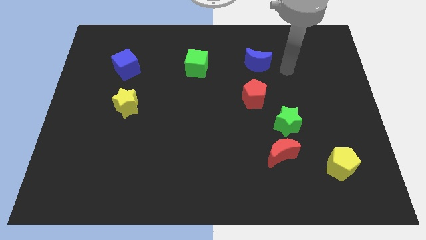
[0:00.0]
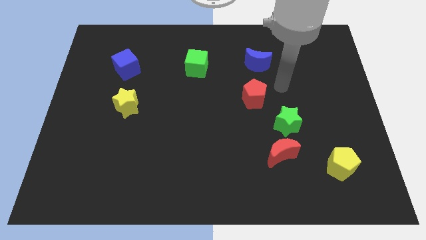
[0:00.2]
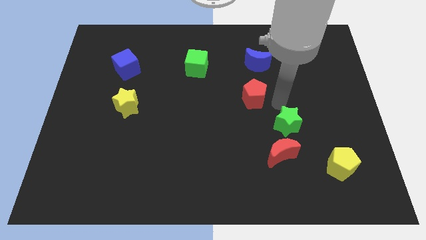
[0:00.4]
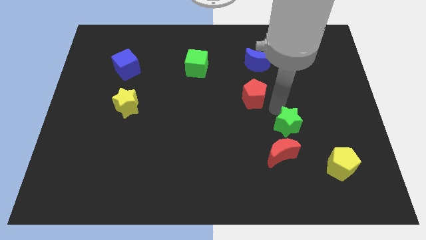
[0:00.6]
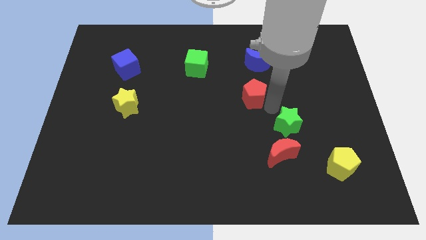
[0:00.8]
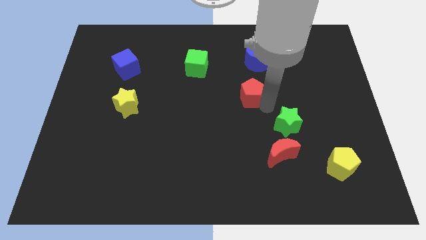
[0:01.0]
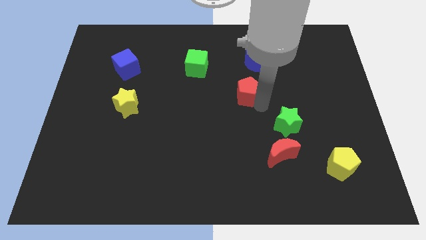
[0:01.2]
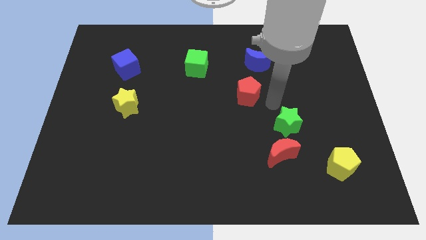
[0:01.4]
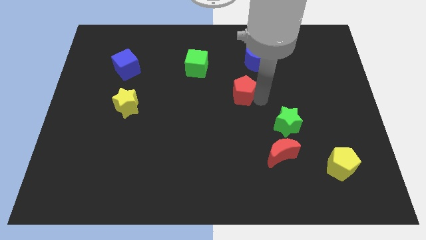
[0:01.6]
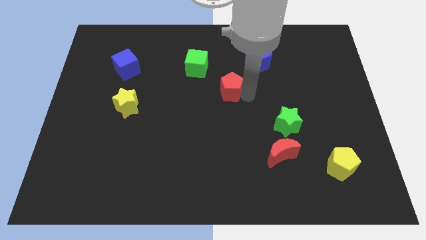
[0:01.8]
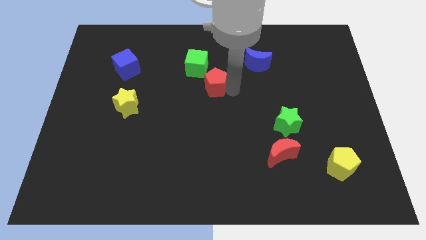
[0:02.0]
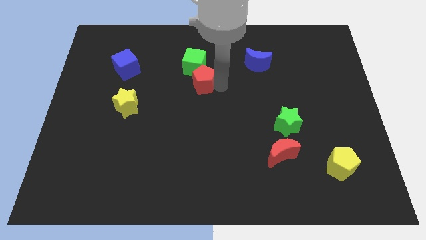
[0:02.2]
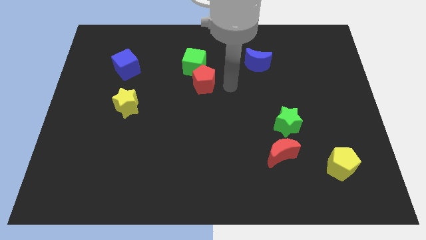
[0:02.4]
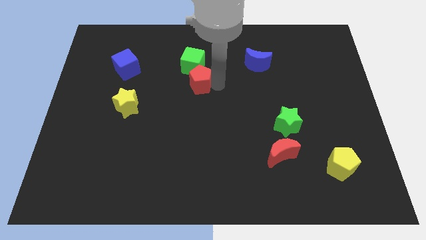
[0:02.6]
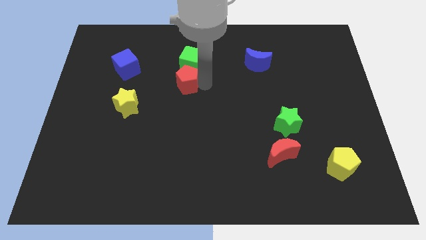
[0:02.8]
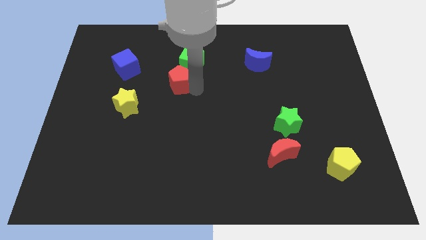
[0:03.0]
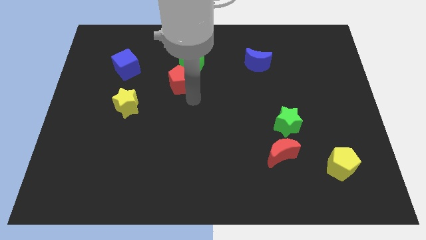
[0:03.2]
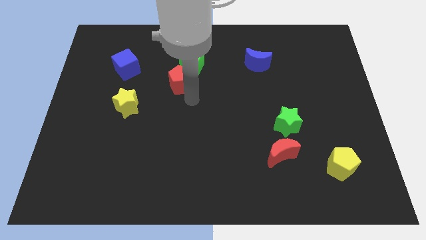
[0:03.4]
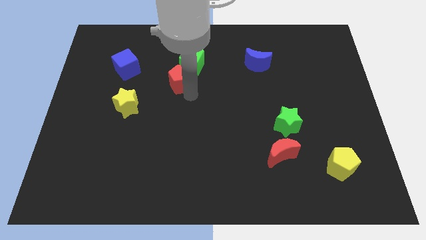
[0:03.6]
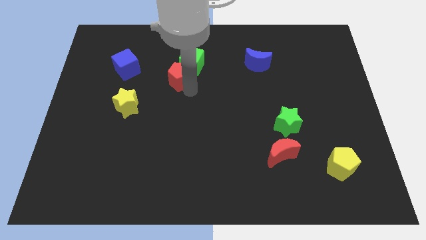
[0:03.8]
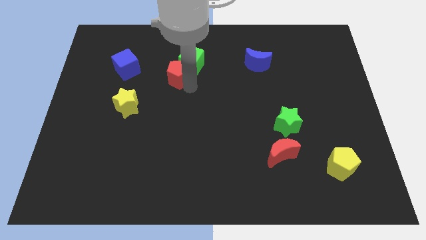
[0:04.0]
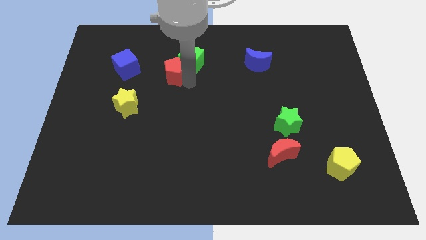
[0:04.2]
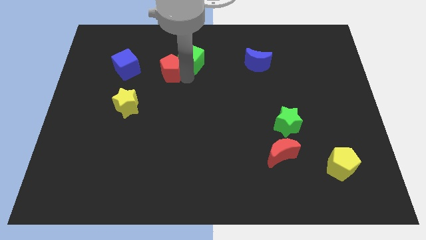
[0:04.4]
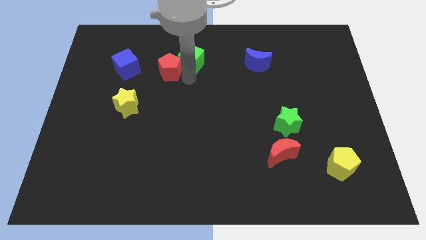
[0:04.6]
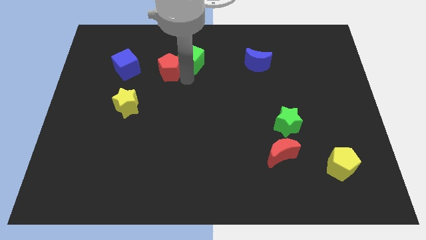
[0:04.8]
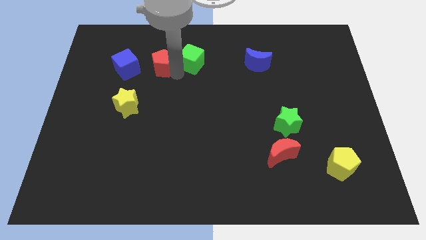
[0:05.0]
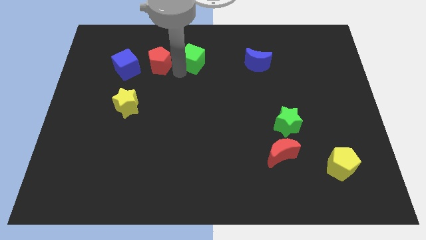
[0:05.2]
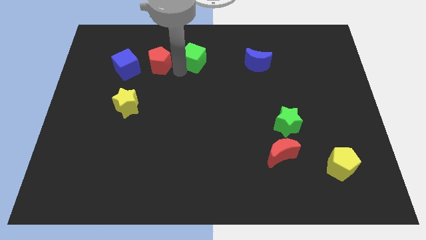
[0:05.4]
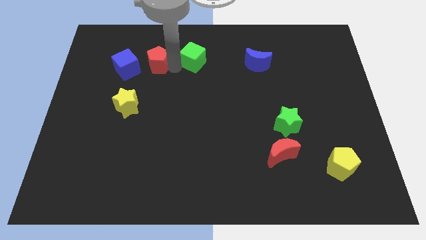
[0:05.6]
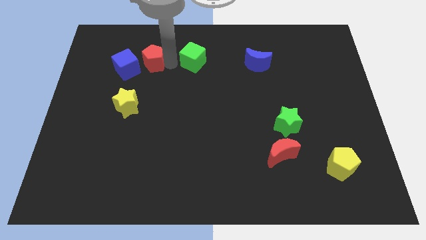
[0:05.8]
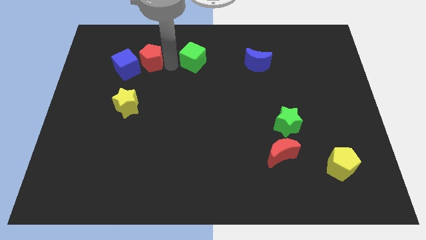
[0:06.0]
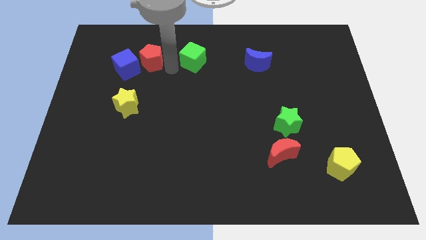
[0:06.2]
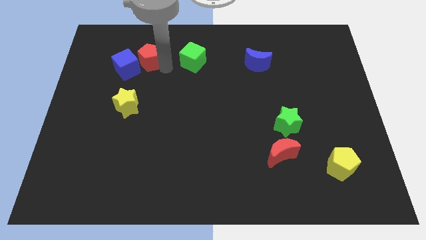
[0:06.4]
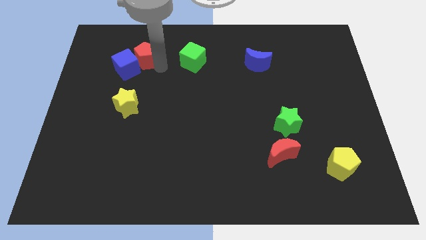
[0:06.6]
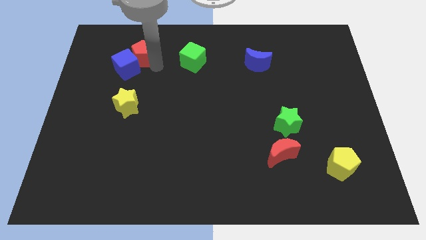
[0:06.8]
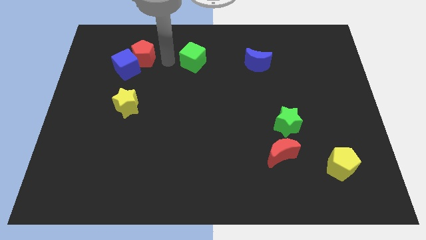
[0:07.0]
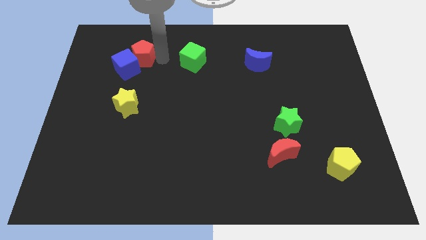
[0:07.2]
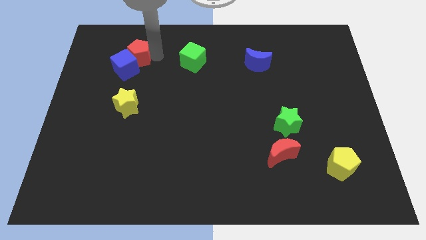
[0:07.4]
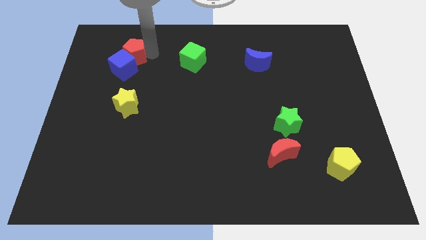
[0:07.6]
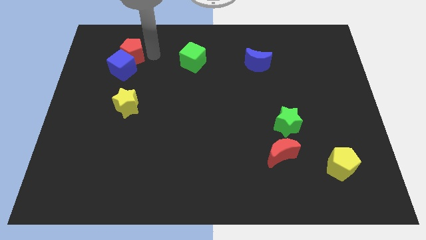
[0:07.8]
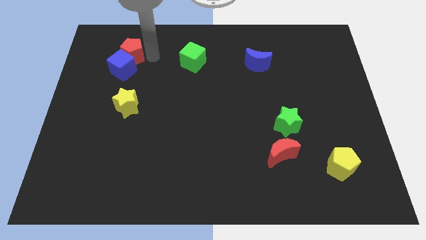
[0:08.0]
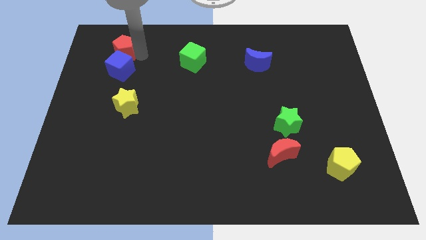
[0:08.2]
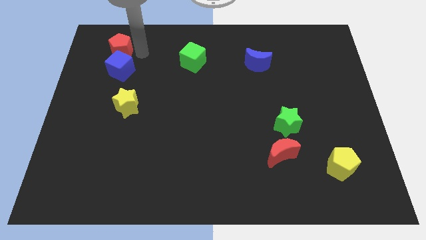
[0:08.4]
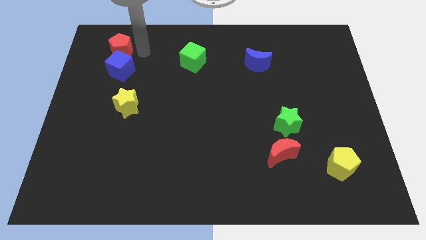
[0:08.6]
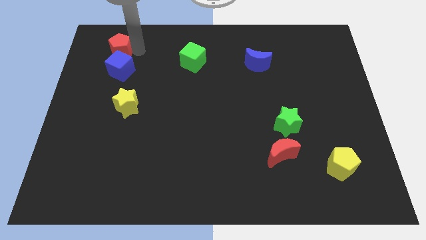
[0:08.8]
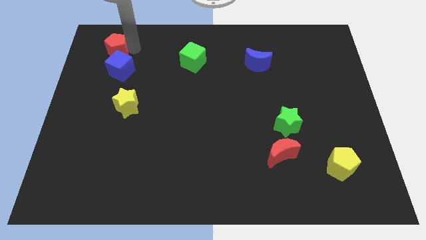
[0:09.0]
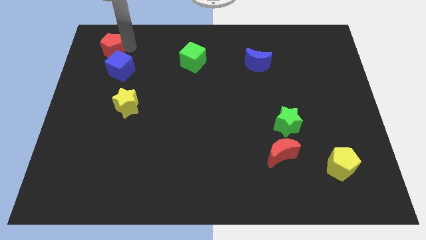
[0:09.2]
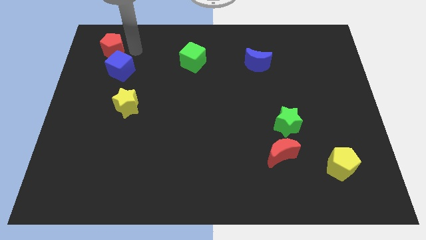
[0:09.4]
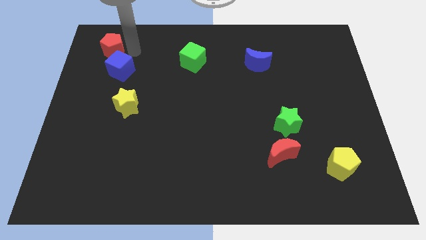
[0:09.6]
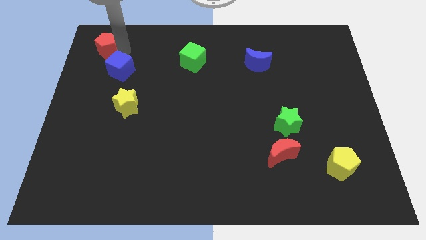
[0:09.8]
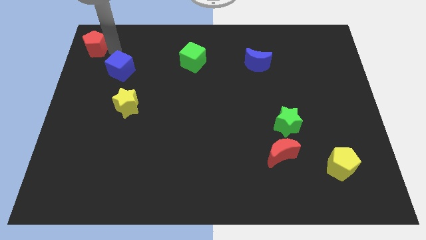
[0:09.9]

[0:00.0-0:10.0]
put the red pentagon to the top left

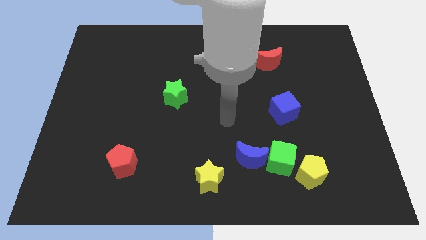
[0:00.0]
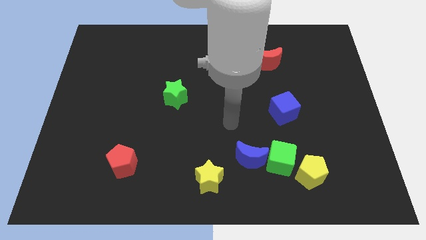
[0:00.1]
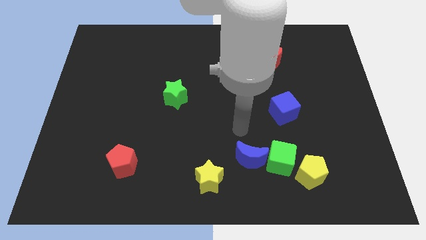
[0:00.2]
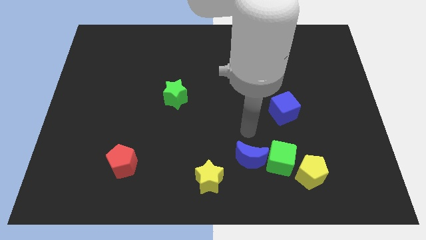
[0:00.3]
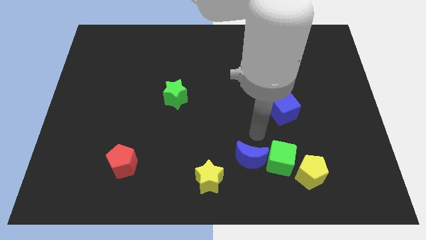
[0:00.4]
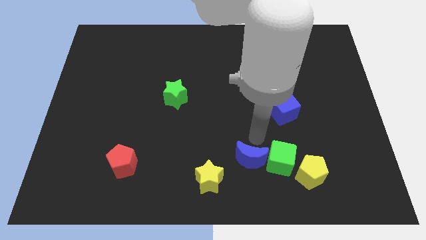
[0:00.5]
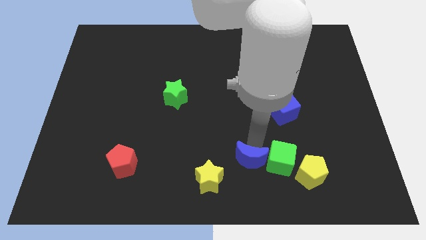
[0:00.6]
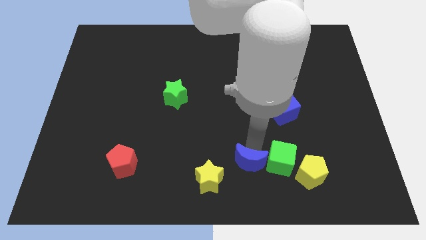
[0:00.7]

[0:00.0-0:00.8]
slide the blue moon to the bottom side

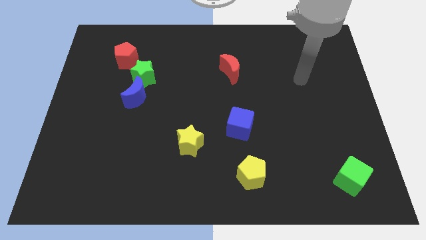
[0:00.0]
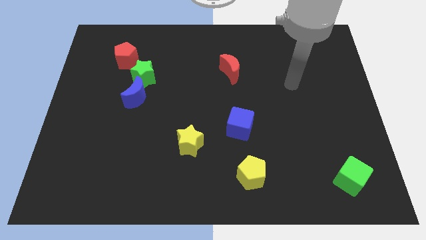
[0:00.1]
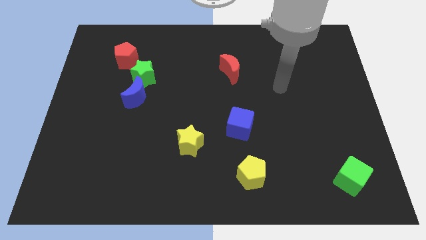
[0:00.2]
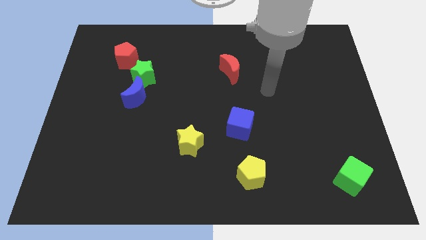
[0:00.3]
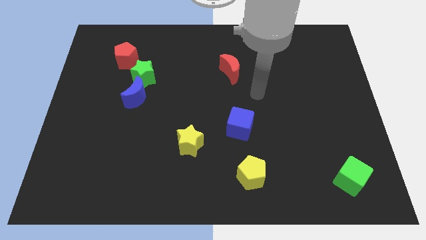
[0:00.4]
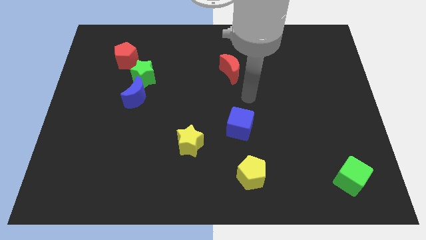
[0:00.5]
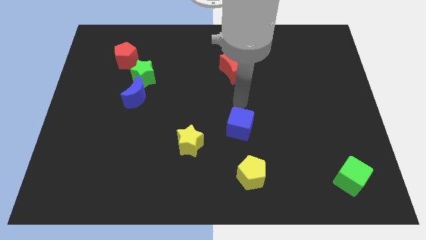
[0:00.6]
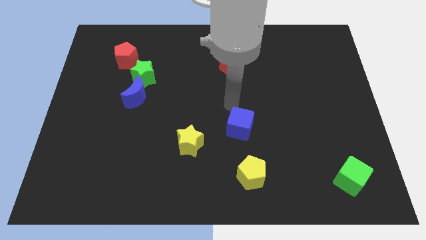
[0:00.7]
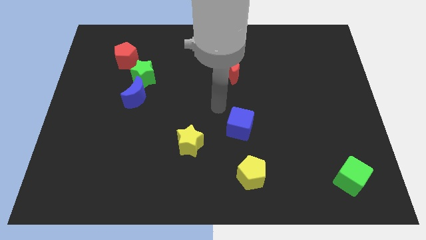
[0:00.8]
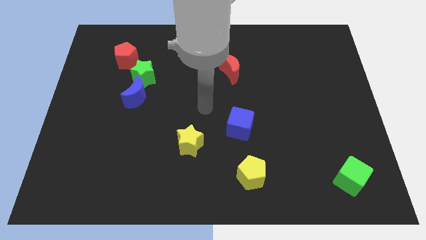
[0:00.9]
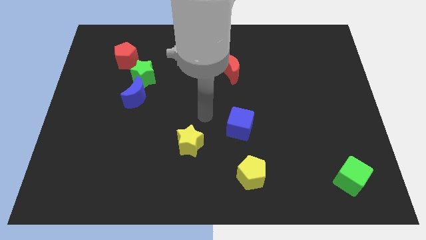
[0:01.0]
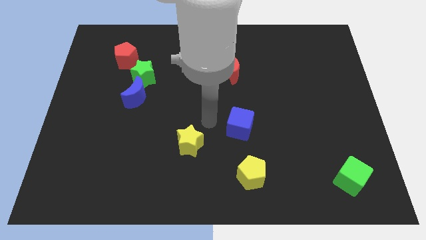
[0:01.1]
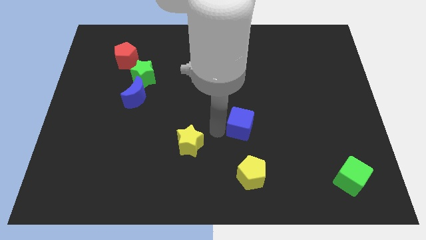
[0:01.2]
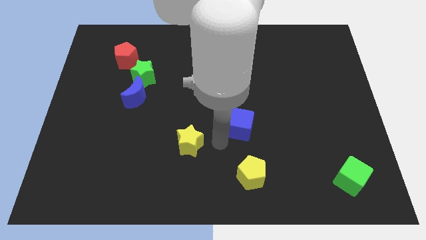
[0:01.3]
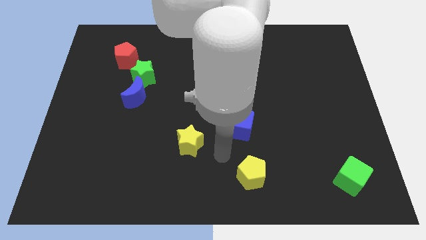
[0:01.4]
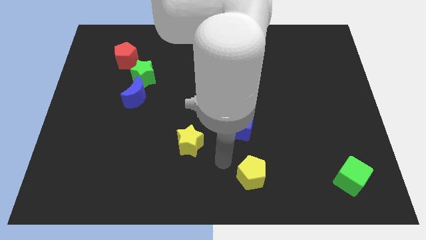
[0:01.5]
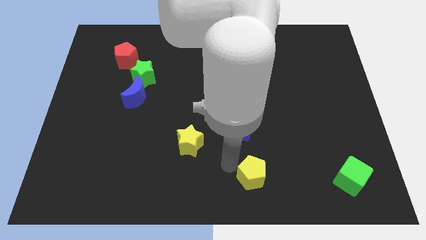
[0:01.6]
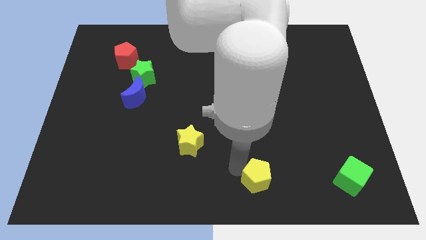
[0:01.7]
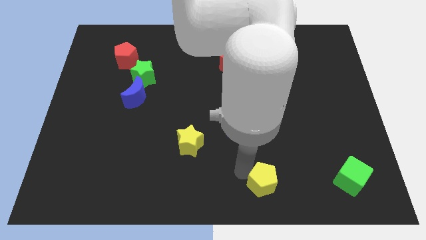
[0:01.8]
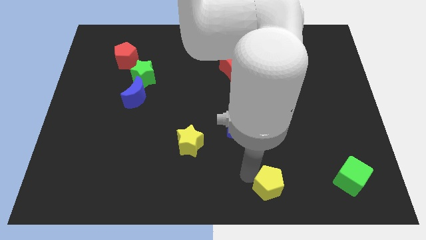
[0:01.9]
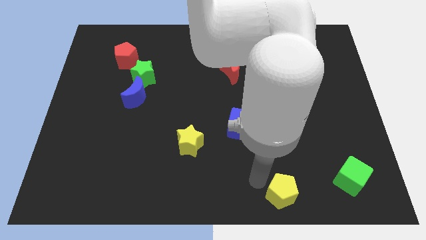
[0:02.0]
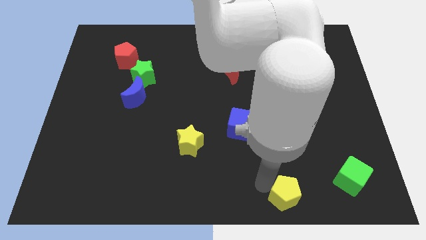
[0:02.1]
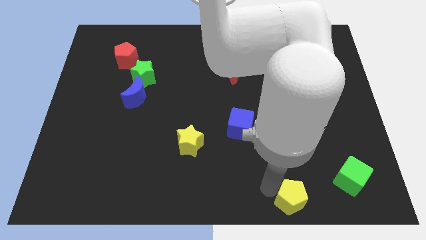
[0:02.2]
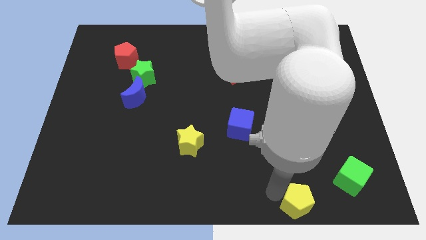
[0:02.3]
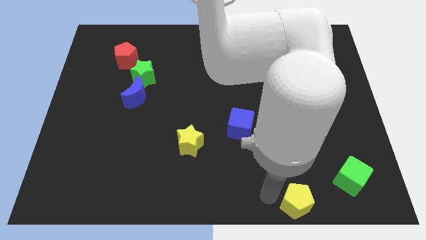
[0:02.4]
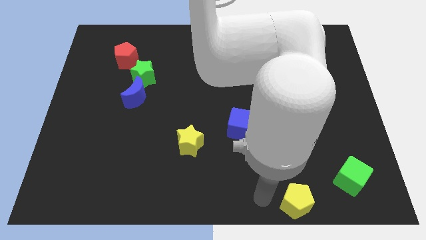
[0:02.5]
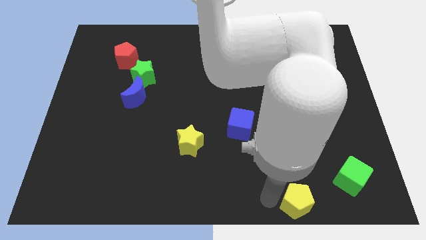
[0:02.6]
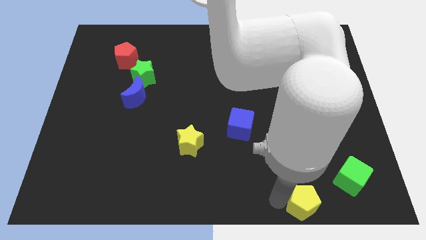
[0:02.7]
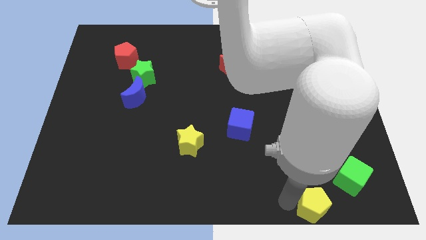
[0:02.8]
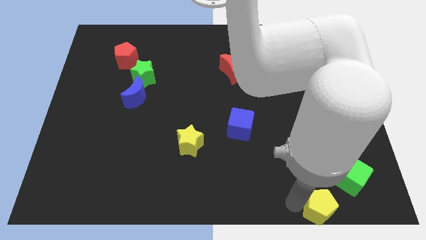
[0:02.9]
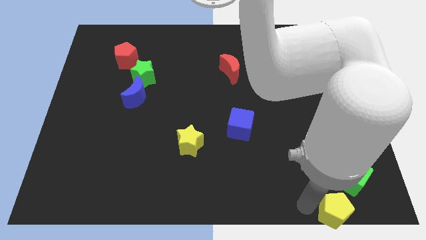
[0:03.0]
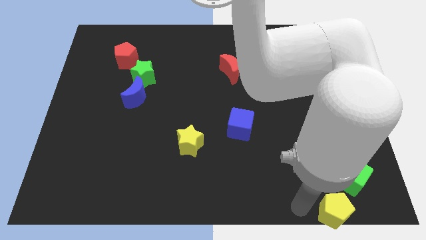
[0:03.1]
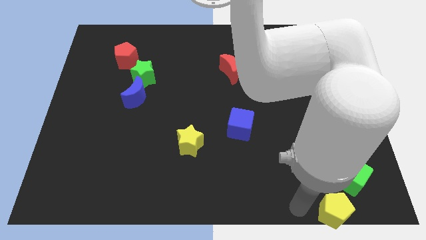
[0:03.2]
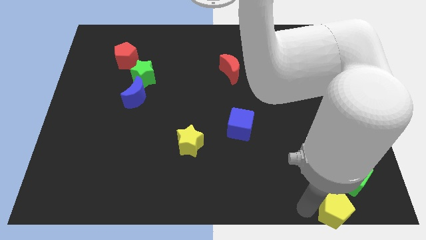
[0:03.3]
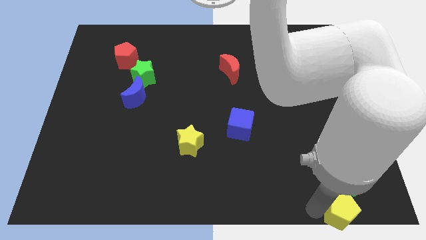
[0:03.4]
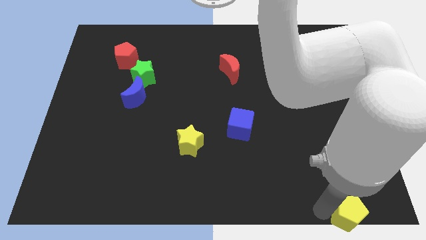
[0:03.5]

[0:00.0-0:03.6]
put the yellow pentagon to the bottom right of the board
